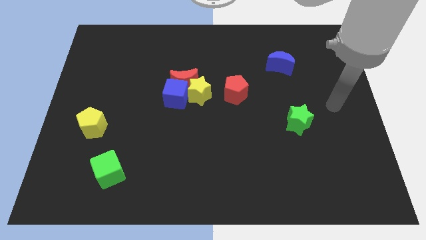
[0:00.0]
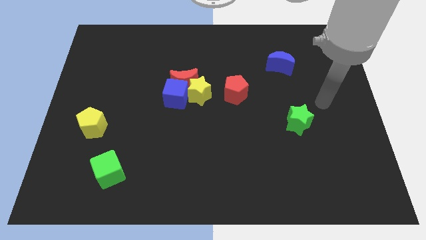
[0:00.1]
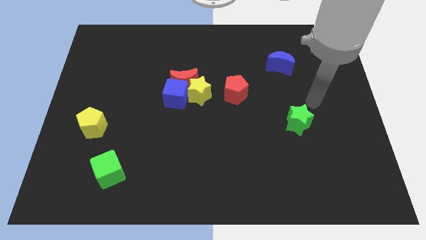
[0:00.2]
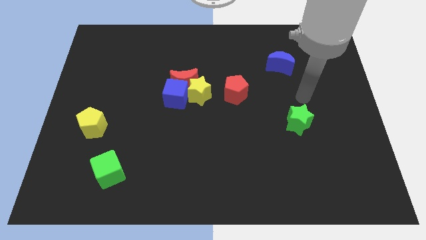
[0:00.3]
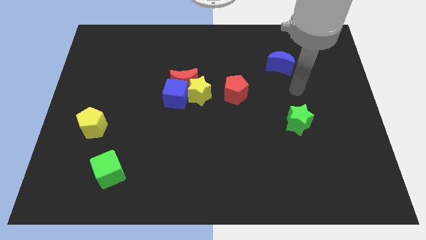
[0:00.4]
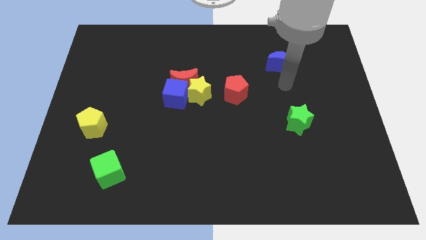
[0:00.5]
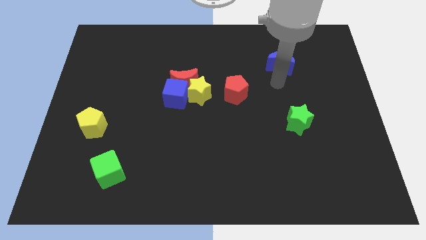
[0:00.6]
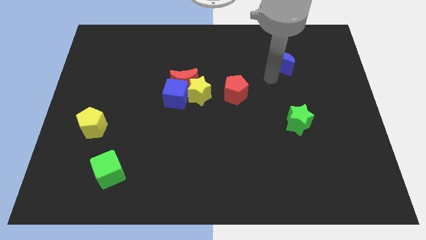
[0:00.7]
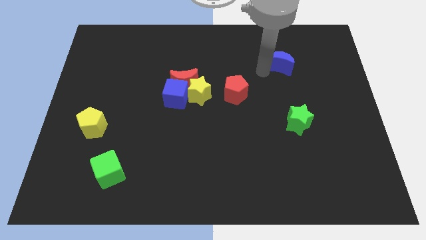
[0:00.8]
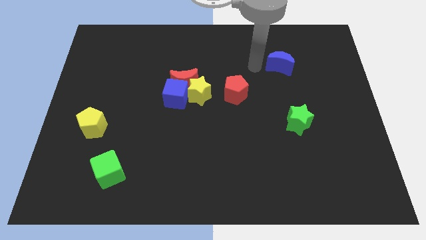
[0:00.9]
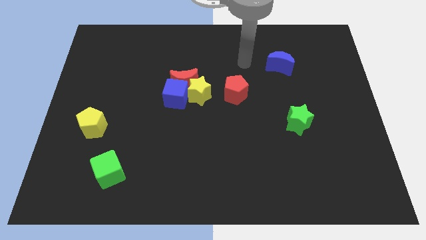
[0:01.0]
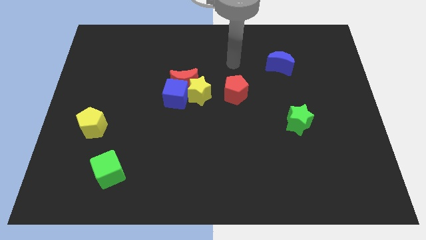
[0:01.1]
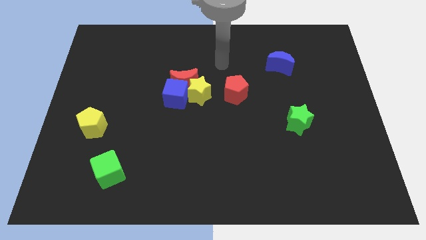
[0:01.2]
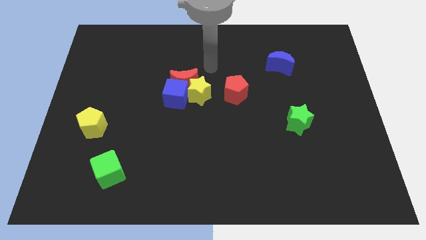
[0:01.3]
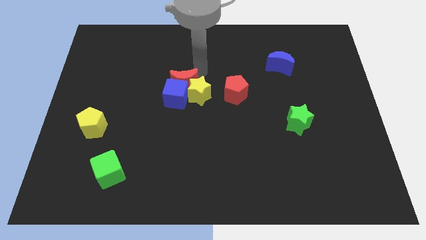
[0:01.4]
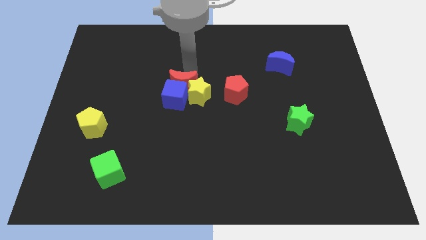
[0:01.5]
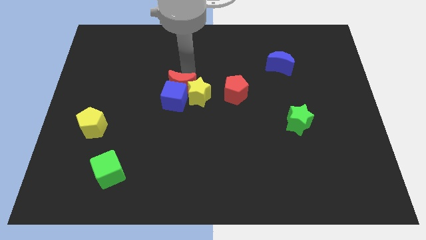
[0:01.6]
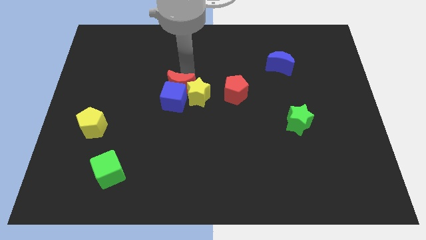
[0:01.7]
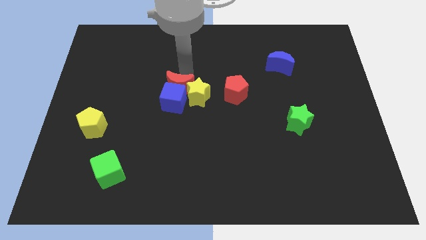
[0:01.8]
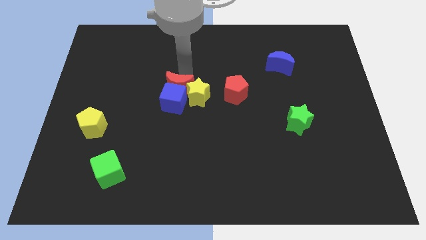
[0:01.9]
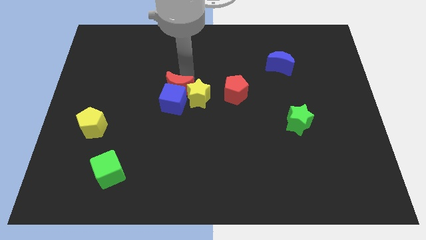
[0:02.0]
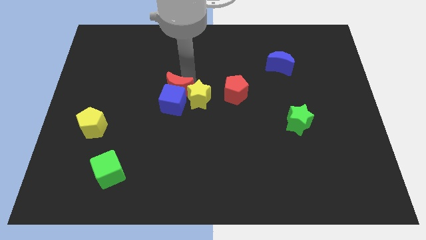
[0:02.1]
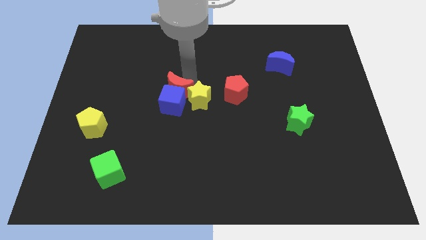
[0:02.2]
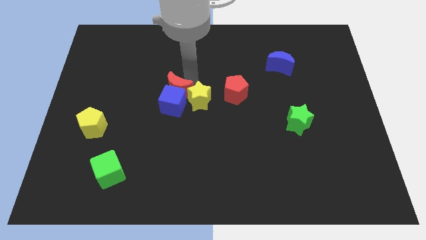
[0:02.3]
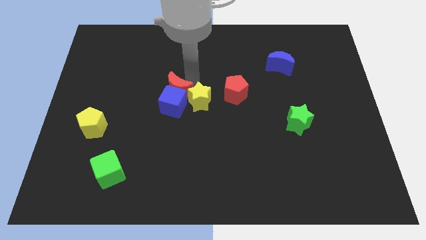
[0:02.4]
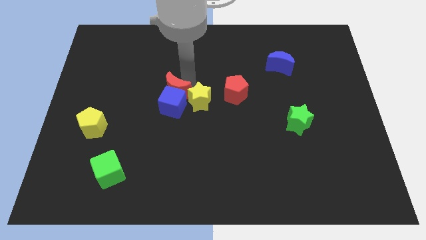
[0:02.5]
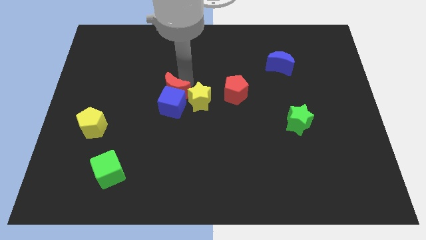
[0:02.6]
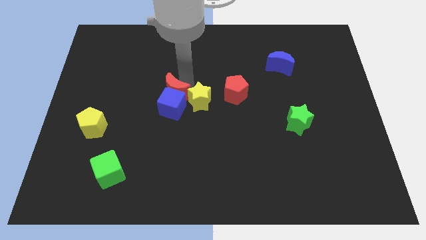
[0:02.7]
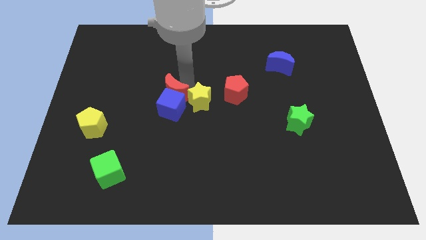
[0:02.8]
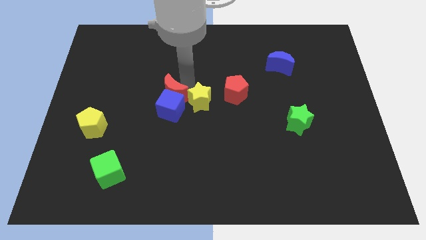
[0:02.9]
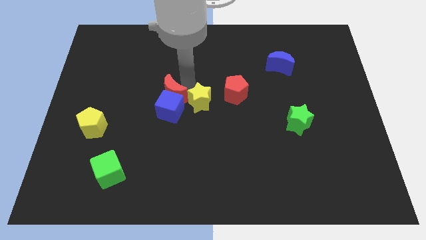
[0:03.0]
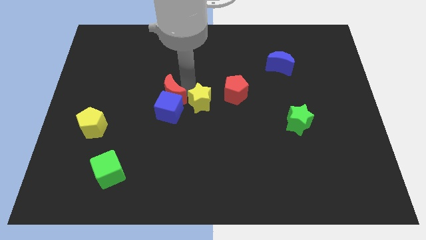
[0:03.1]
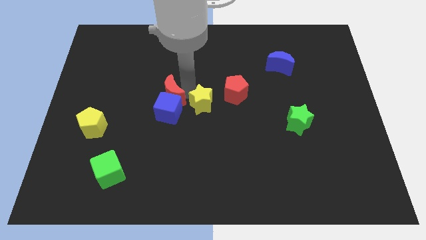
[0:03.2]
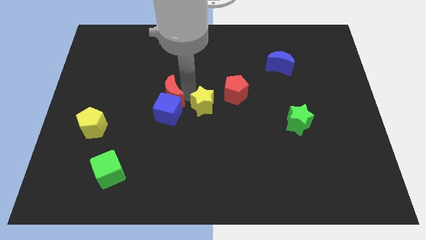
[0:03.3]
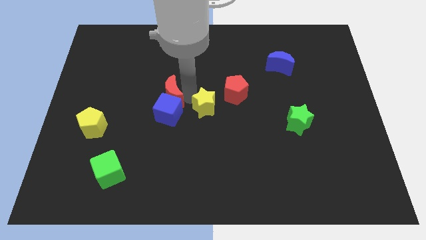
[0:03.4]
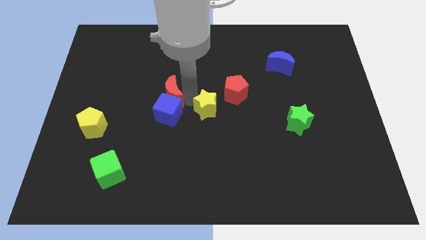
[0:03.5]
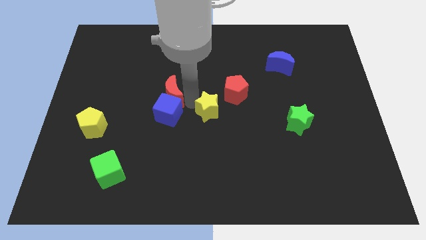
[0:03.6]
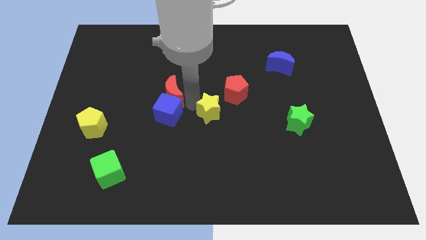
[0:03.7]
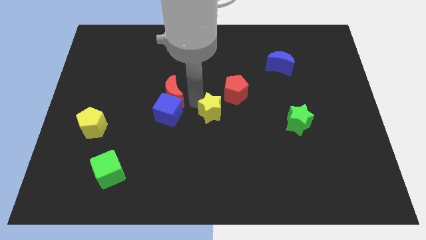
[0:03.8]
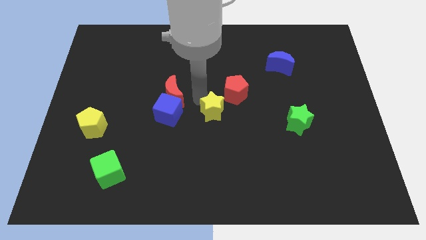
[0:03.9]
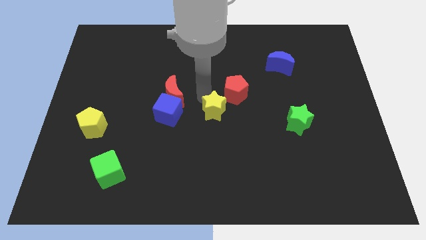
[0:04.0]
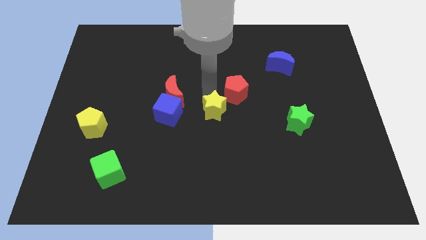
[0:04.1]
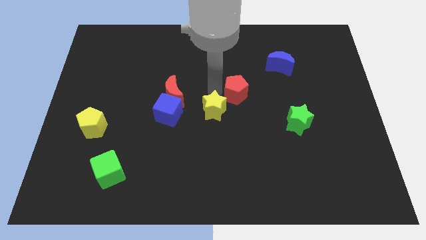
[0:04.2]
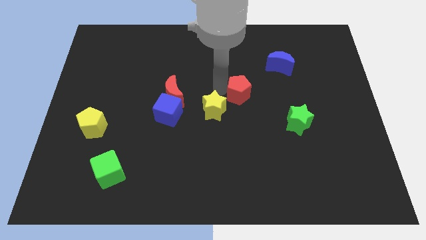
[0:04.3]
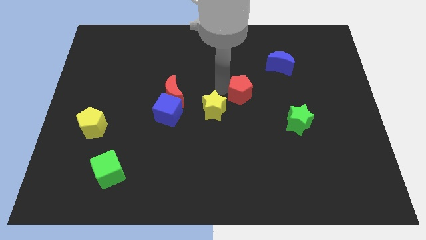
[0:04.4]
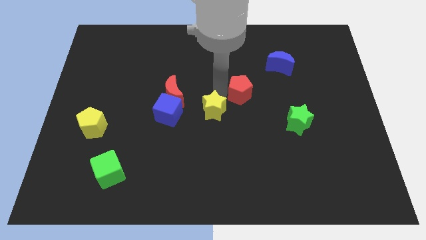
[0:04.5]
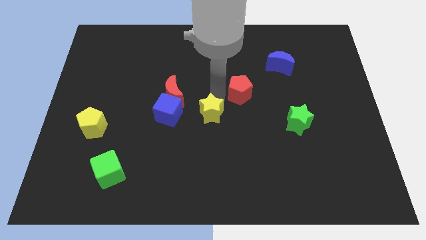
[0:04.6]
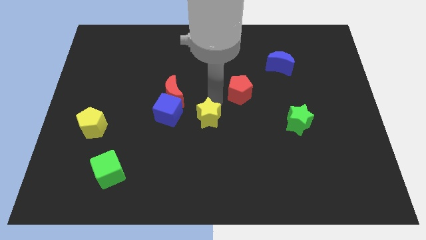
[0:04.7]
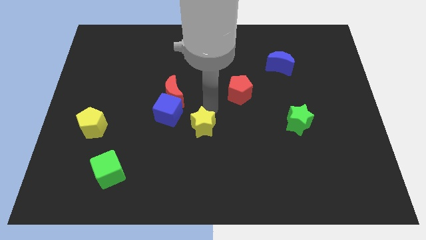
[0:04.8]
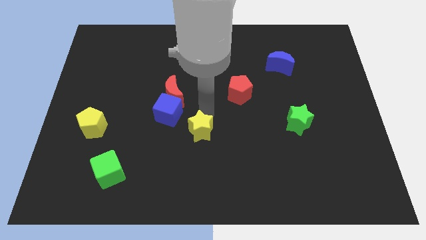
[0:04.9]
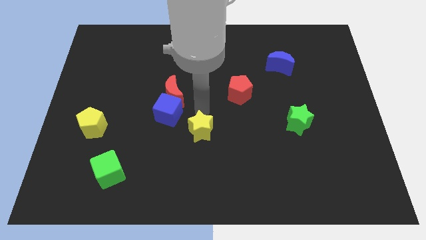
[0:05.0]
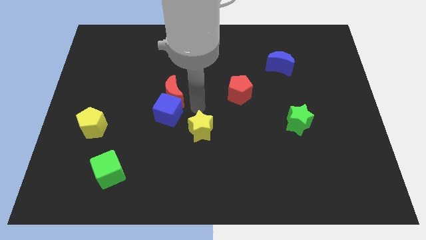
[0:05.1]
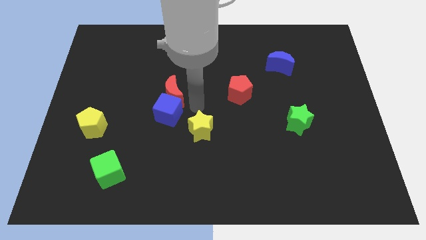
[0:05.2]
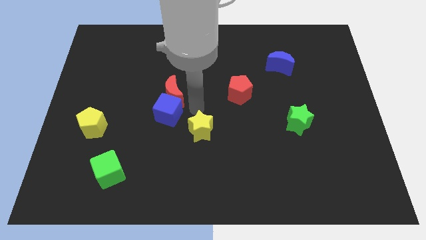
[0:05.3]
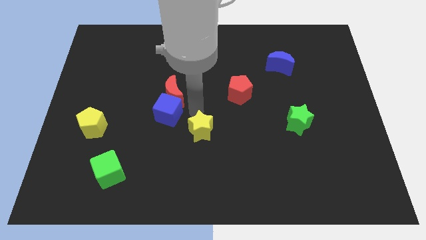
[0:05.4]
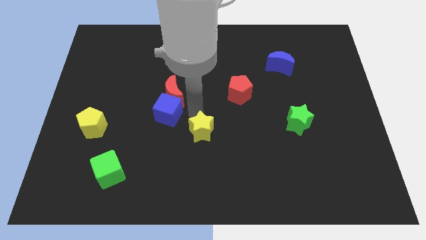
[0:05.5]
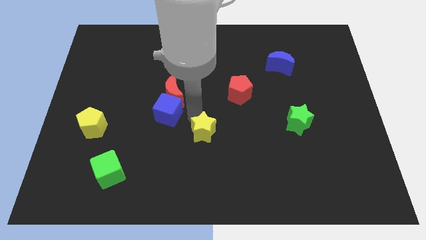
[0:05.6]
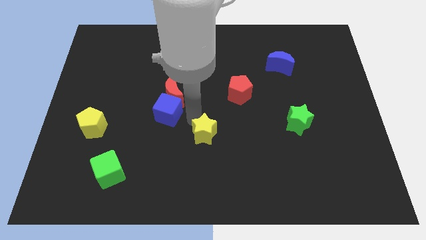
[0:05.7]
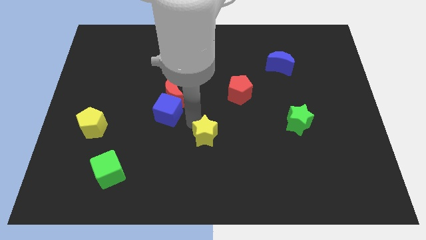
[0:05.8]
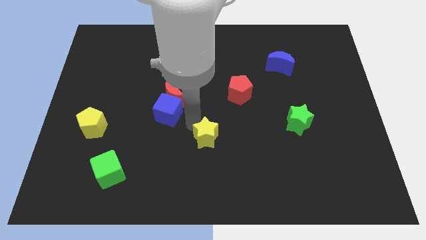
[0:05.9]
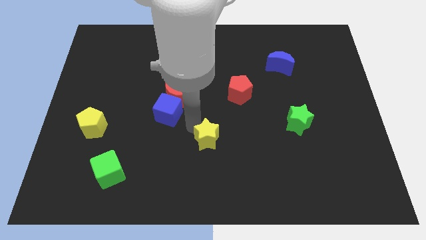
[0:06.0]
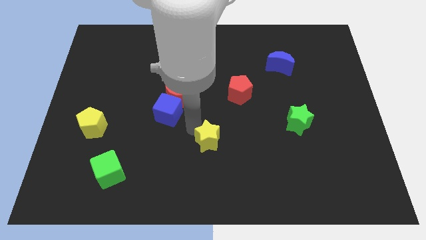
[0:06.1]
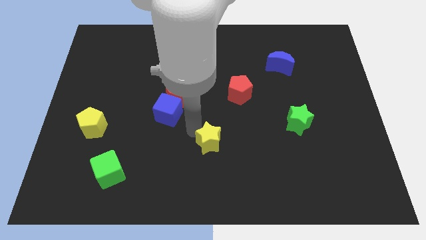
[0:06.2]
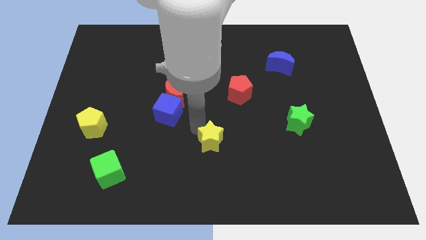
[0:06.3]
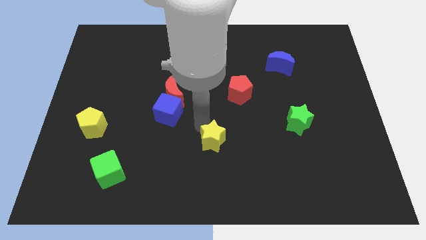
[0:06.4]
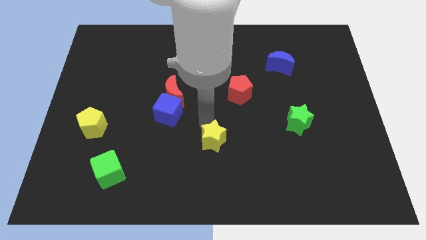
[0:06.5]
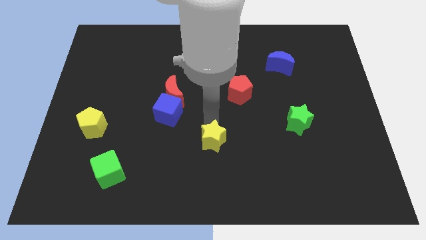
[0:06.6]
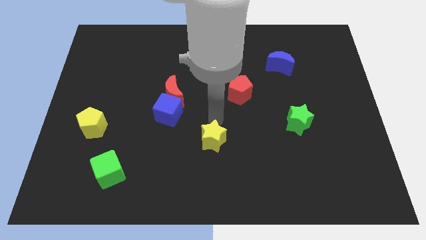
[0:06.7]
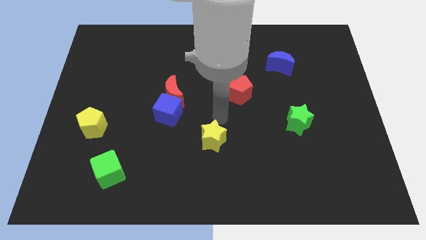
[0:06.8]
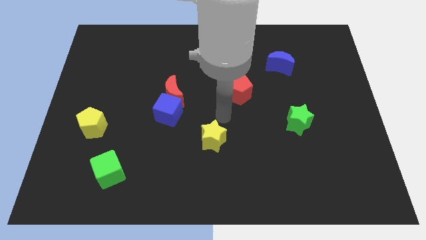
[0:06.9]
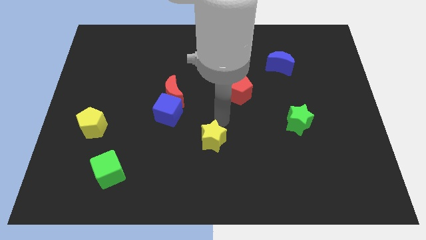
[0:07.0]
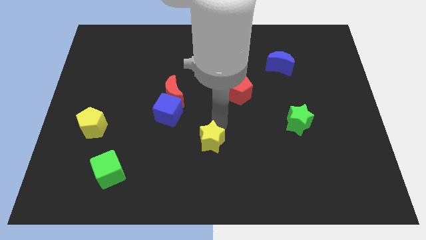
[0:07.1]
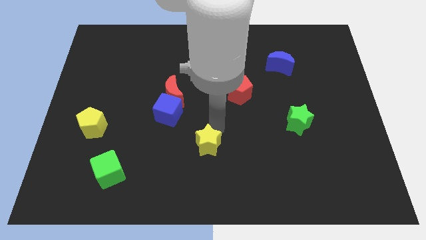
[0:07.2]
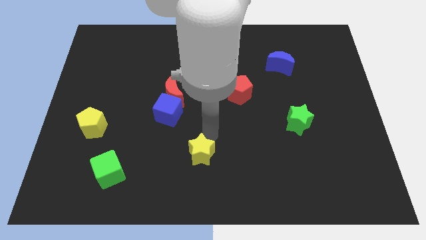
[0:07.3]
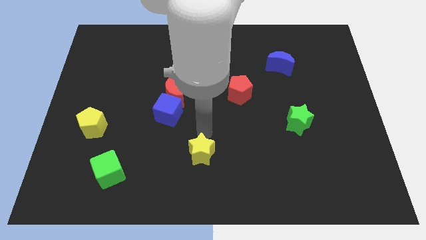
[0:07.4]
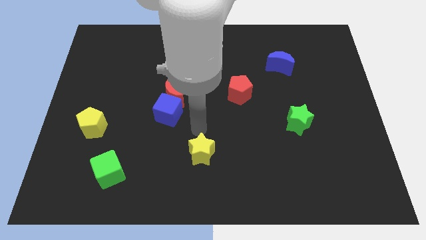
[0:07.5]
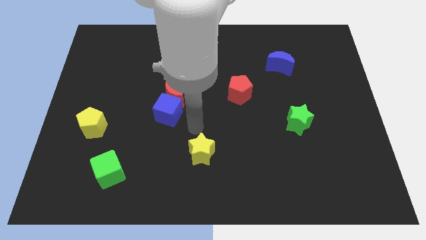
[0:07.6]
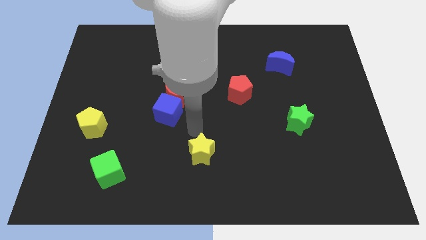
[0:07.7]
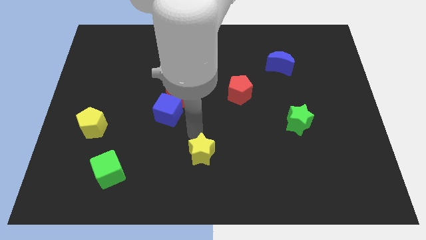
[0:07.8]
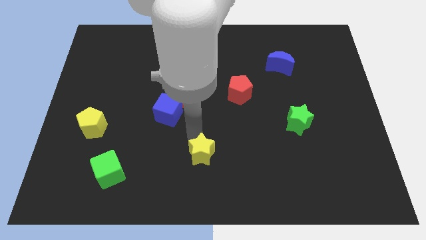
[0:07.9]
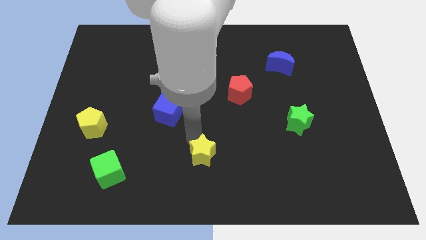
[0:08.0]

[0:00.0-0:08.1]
put the yellow star to the bottom
